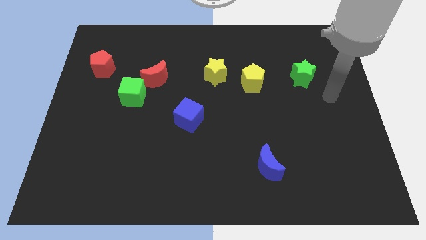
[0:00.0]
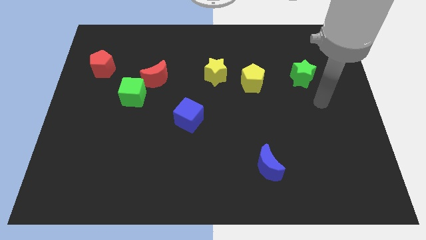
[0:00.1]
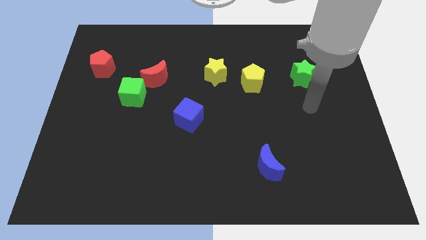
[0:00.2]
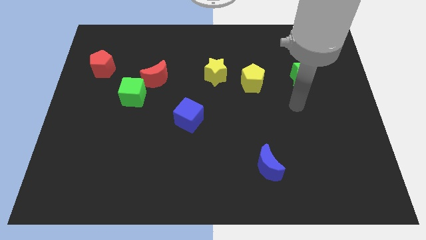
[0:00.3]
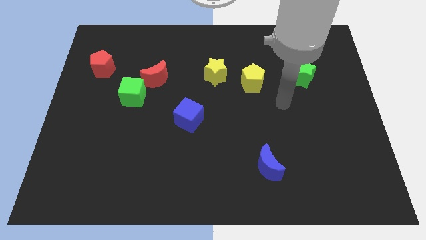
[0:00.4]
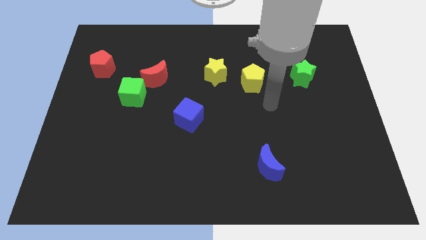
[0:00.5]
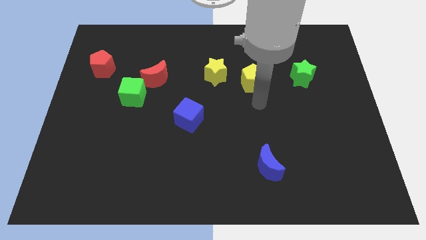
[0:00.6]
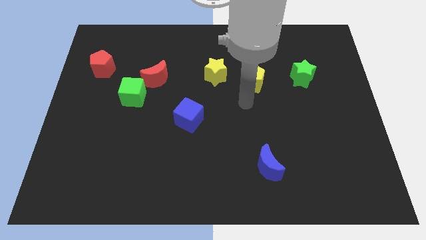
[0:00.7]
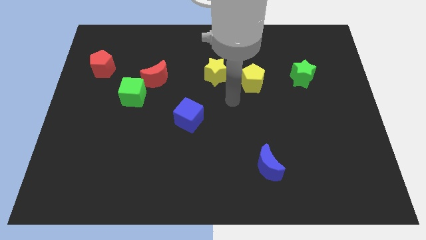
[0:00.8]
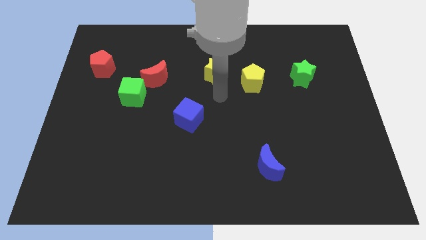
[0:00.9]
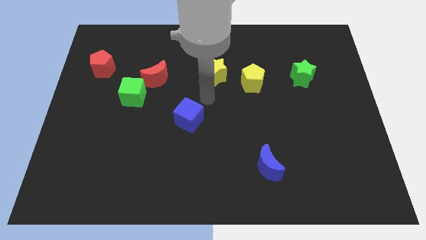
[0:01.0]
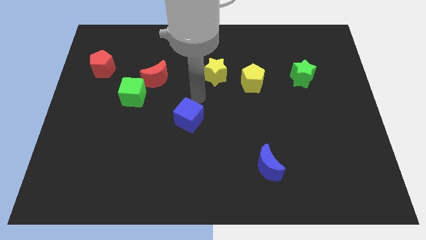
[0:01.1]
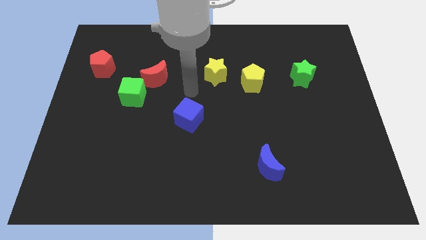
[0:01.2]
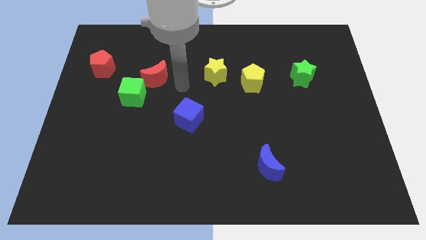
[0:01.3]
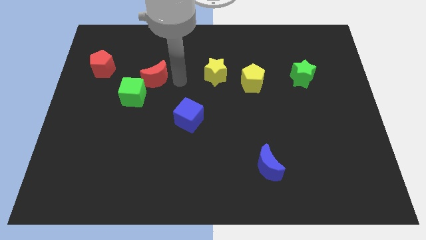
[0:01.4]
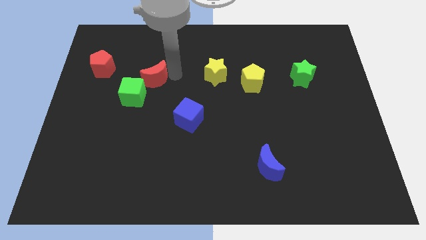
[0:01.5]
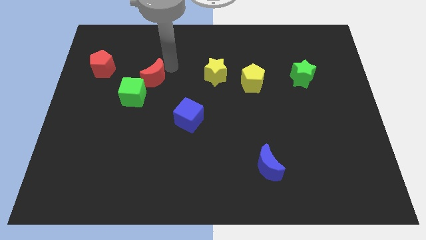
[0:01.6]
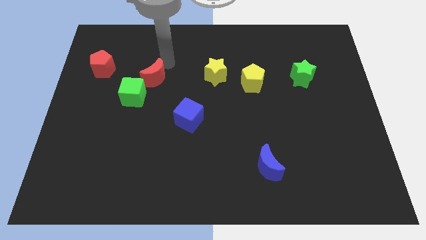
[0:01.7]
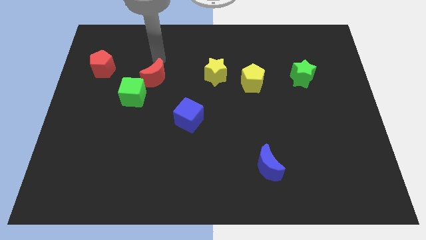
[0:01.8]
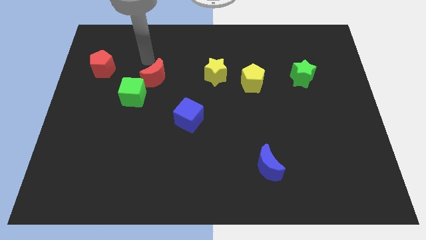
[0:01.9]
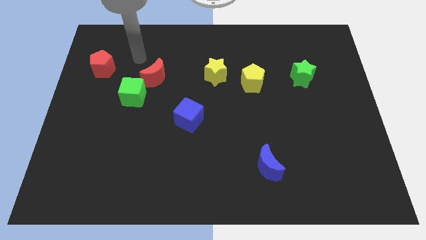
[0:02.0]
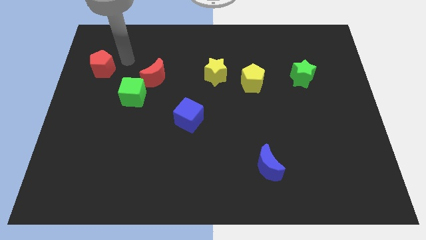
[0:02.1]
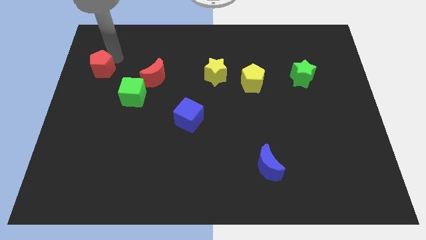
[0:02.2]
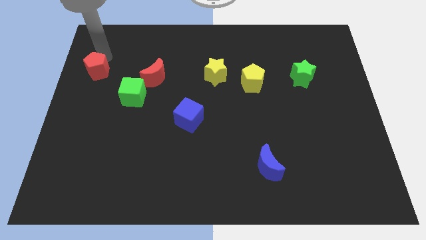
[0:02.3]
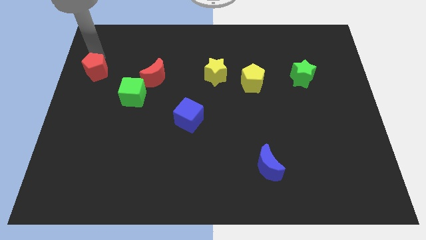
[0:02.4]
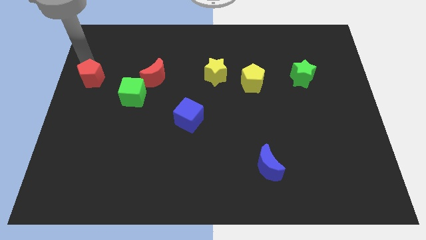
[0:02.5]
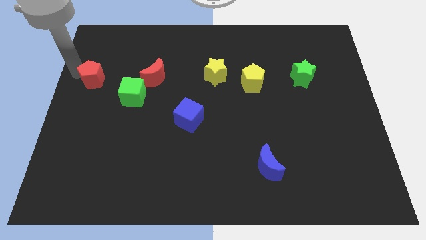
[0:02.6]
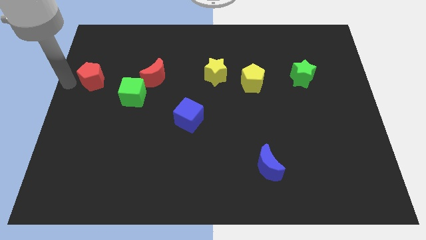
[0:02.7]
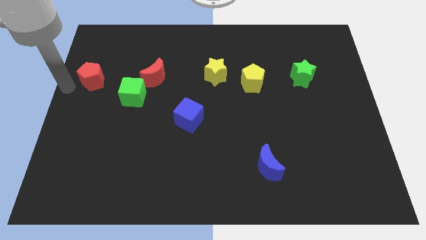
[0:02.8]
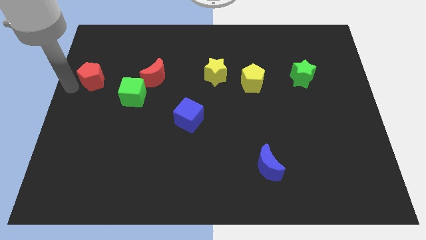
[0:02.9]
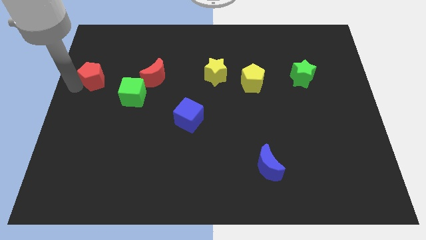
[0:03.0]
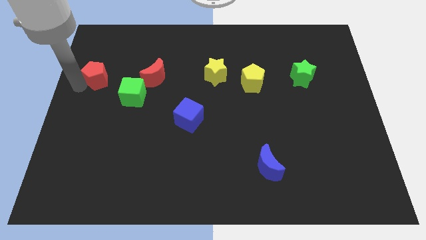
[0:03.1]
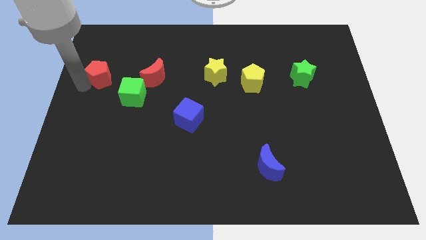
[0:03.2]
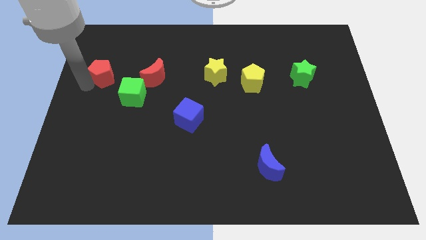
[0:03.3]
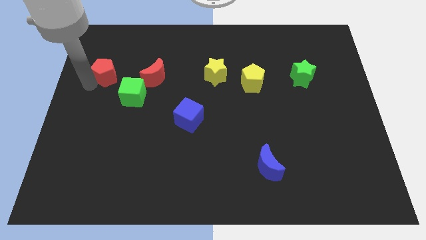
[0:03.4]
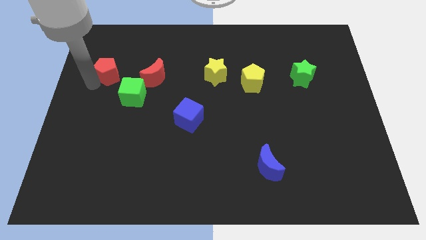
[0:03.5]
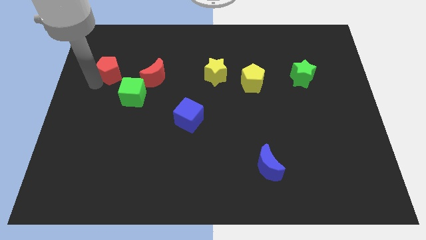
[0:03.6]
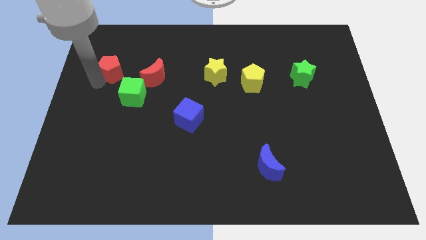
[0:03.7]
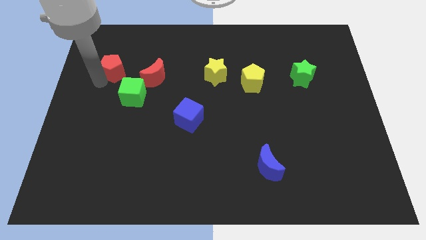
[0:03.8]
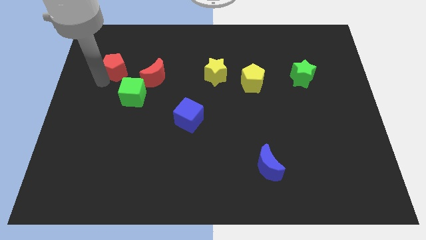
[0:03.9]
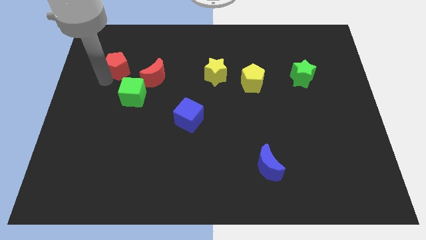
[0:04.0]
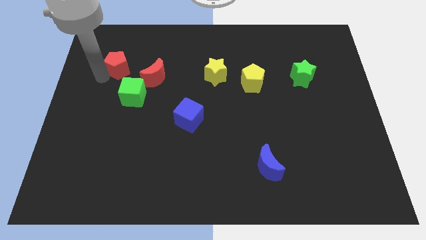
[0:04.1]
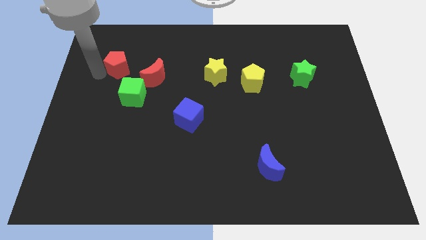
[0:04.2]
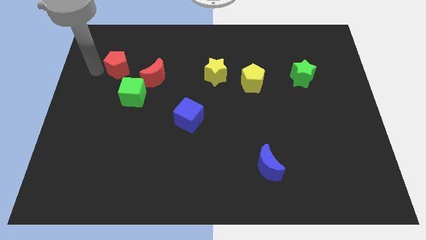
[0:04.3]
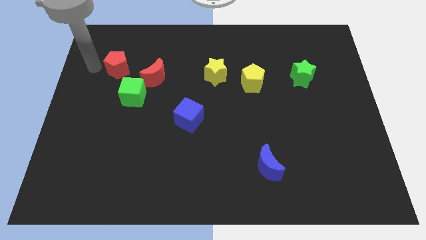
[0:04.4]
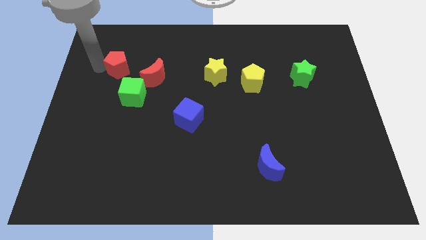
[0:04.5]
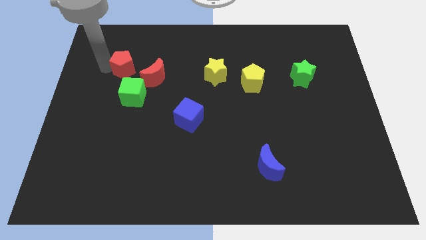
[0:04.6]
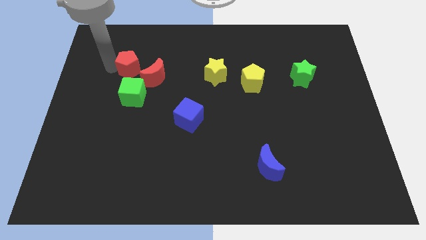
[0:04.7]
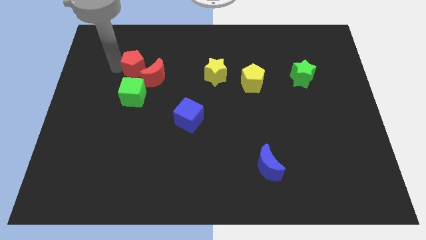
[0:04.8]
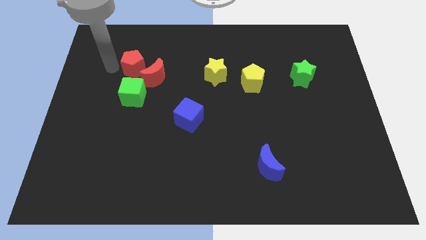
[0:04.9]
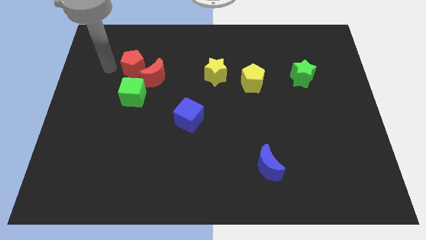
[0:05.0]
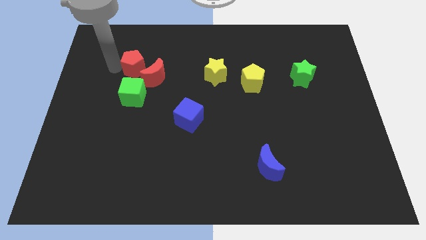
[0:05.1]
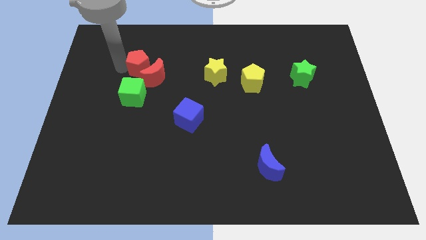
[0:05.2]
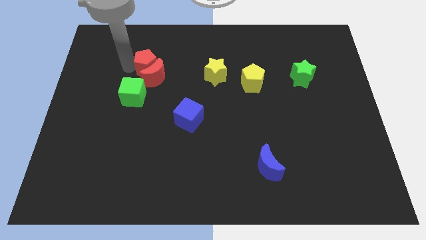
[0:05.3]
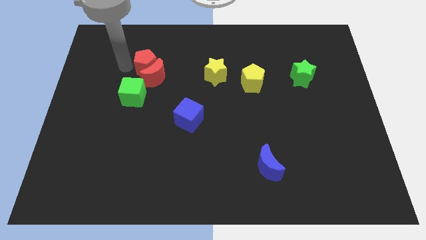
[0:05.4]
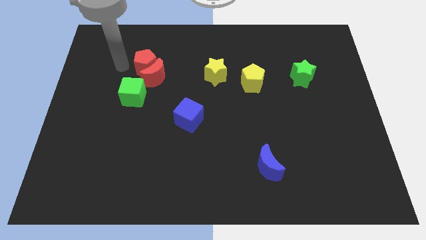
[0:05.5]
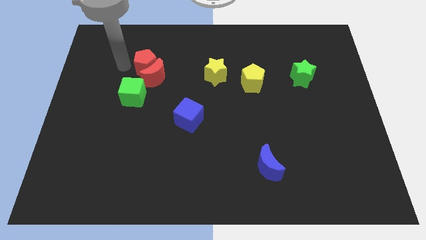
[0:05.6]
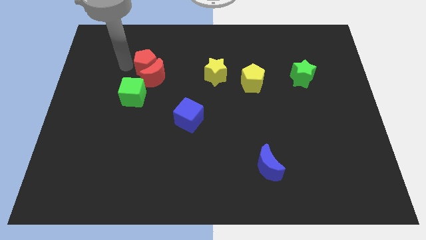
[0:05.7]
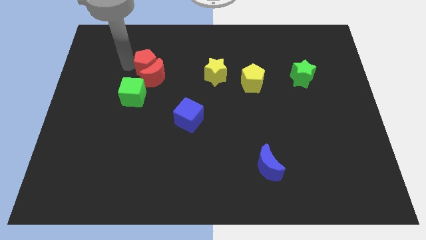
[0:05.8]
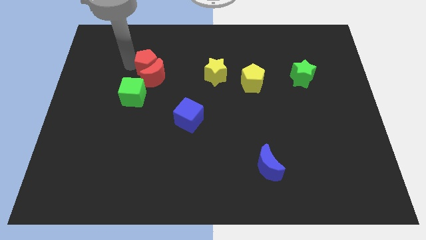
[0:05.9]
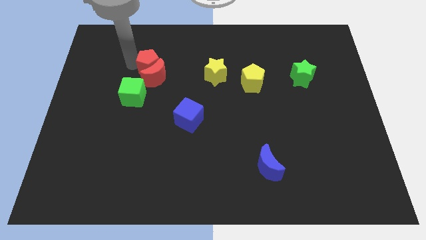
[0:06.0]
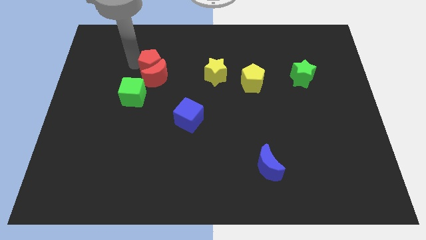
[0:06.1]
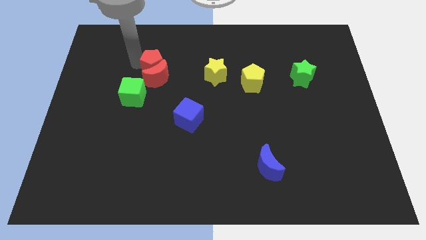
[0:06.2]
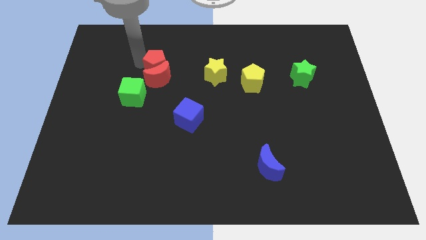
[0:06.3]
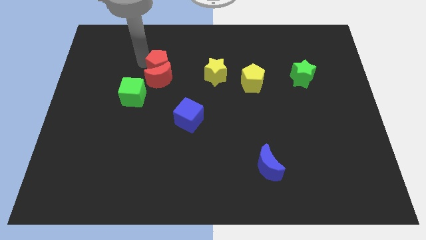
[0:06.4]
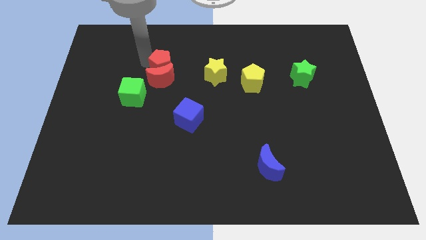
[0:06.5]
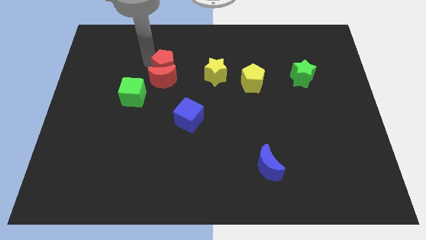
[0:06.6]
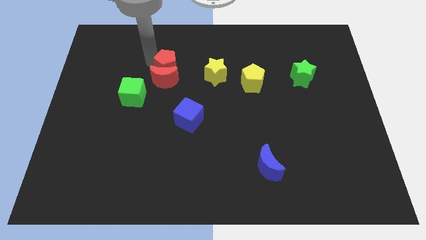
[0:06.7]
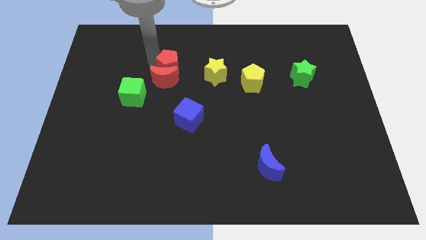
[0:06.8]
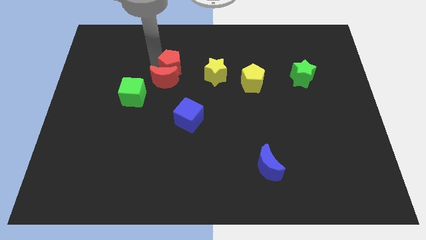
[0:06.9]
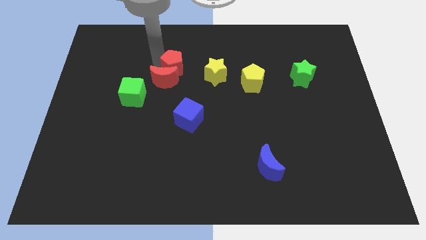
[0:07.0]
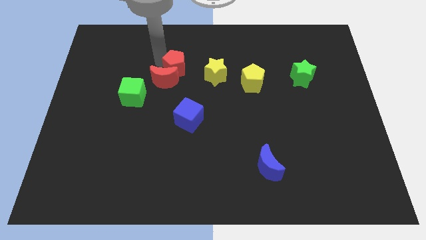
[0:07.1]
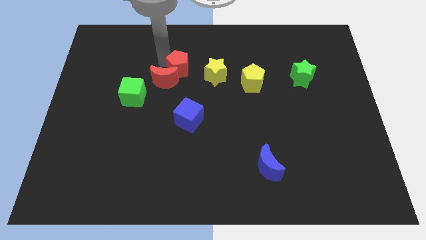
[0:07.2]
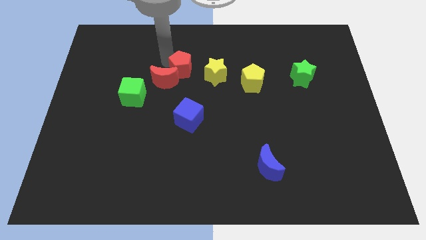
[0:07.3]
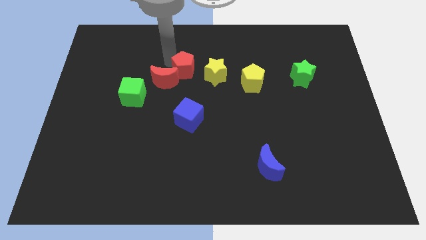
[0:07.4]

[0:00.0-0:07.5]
put the red pentagon to the center of the board
